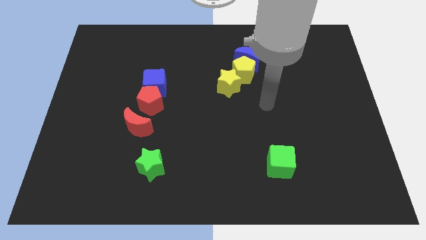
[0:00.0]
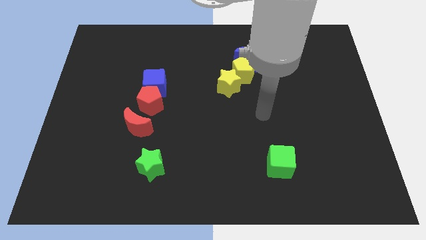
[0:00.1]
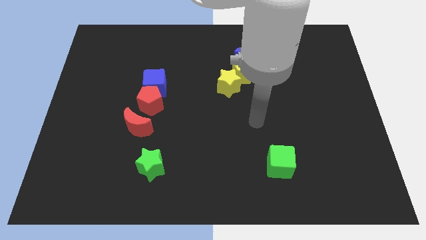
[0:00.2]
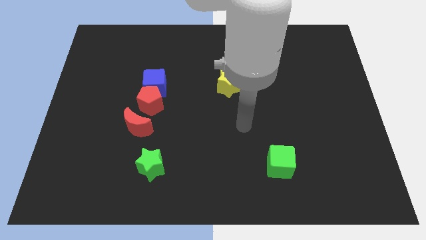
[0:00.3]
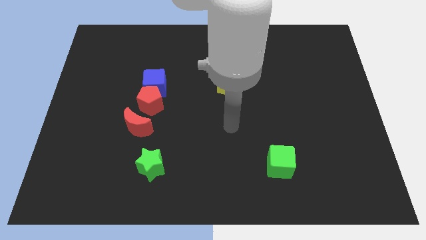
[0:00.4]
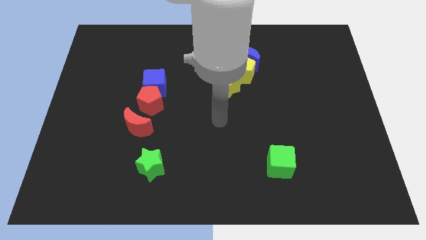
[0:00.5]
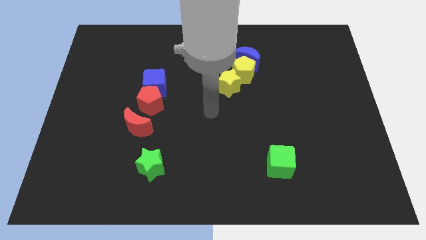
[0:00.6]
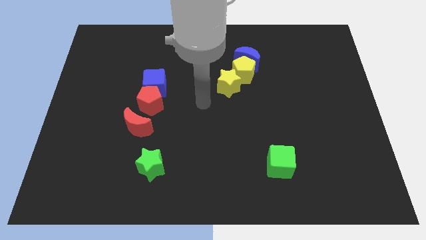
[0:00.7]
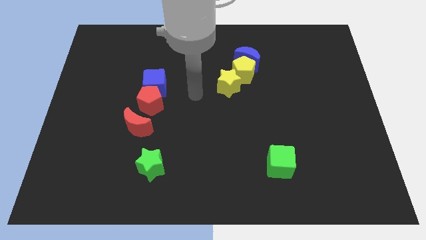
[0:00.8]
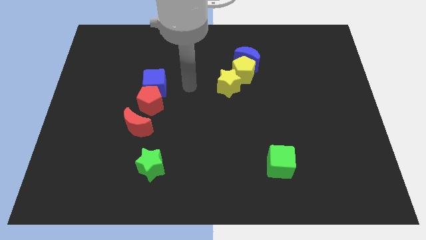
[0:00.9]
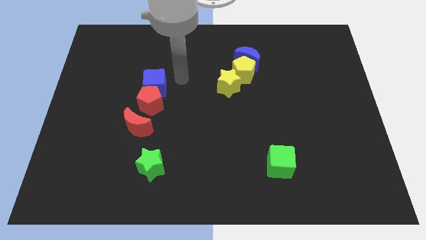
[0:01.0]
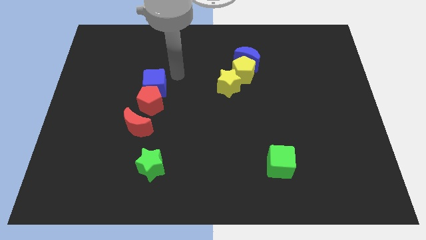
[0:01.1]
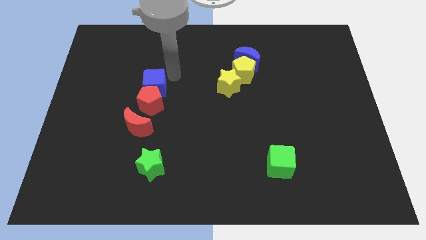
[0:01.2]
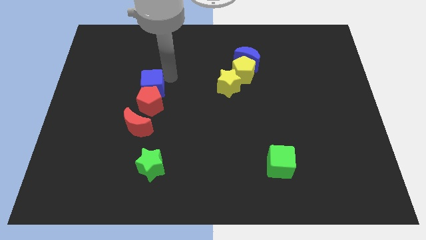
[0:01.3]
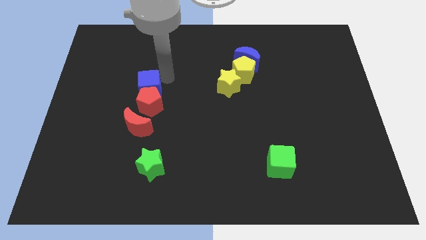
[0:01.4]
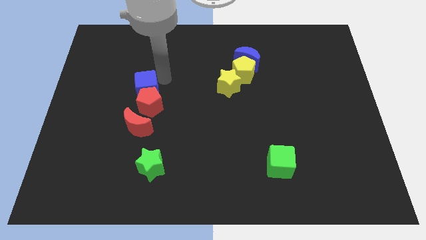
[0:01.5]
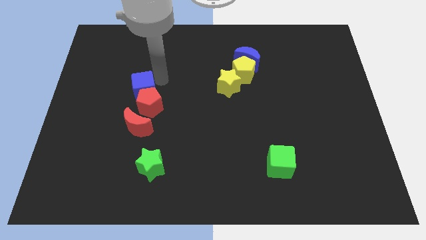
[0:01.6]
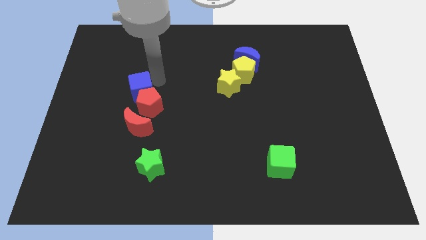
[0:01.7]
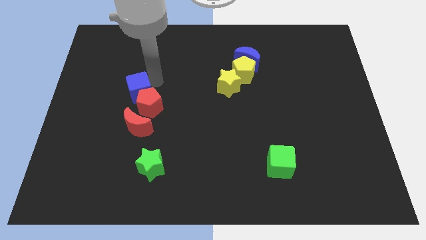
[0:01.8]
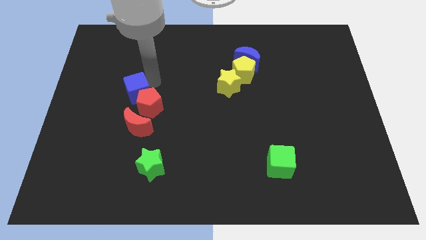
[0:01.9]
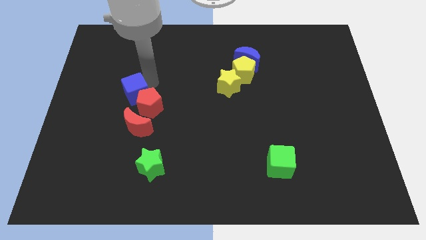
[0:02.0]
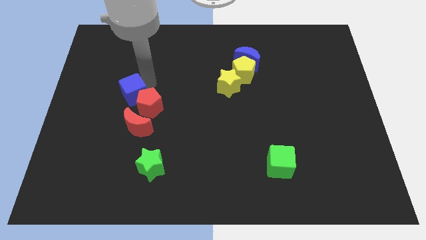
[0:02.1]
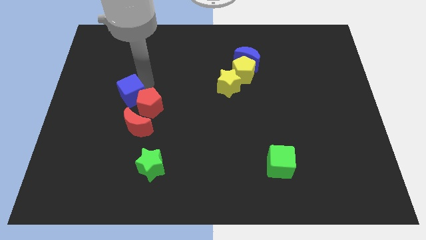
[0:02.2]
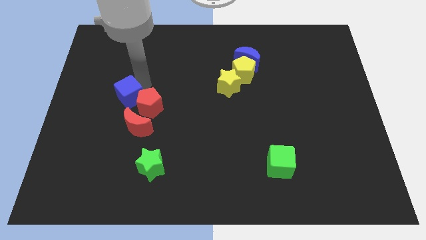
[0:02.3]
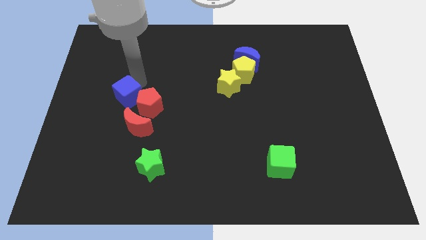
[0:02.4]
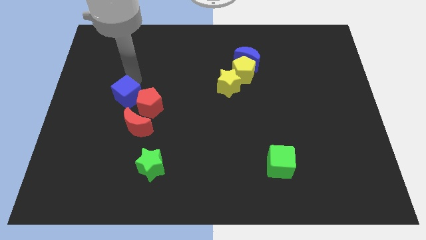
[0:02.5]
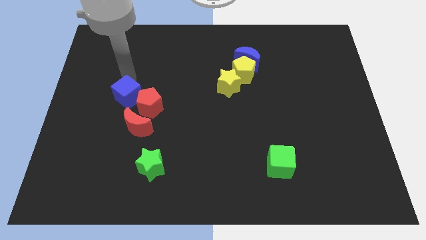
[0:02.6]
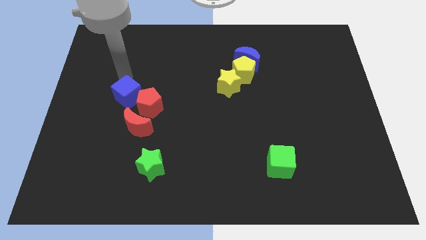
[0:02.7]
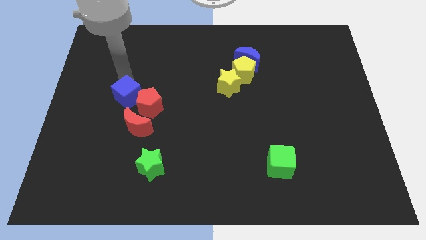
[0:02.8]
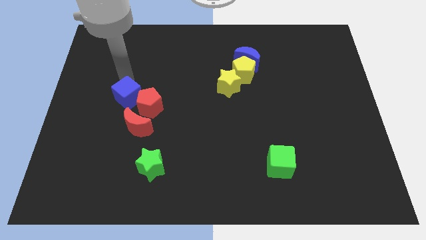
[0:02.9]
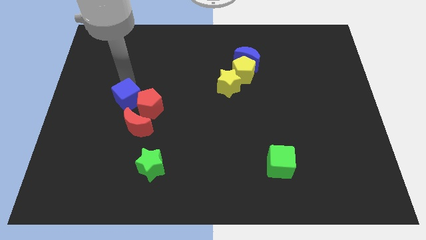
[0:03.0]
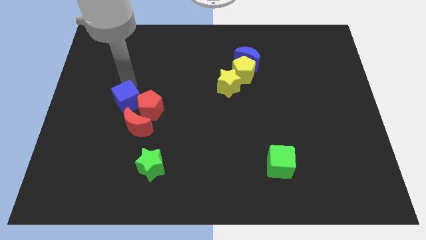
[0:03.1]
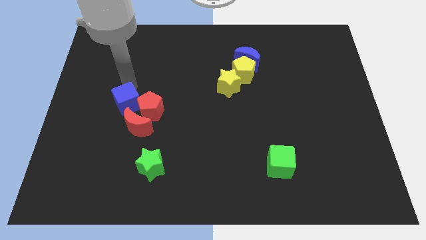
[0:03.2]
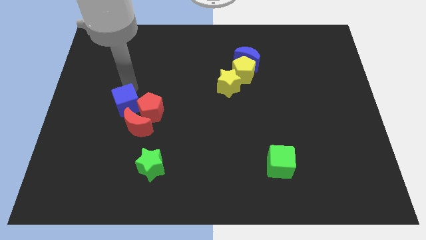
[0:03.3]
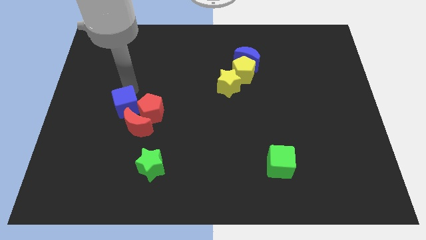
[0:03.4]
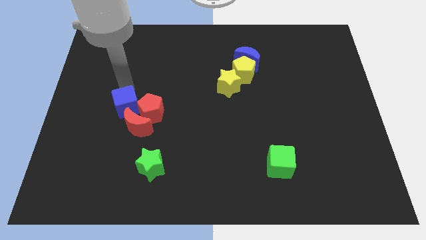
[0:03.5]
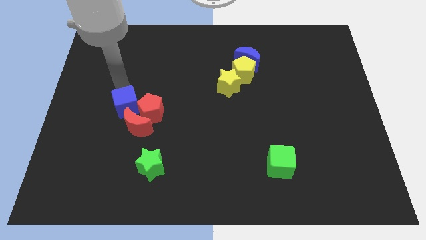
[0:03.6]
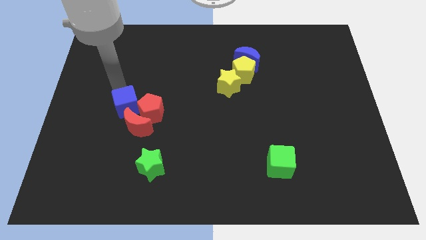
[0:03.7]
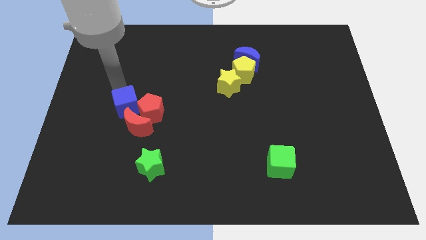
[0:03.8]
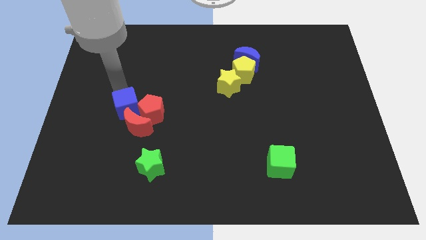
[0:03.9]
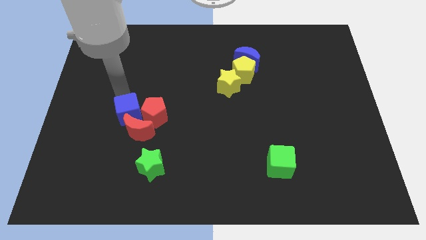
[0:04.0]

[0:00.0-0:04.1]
push the blue cube towards the red moon

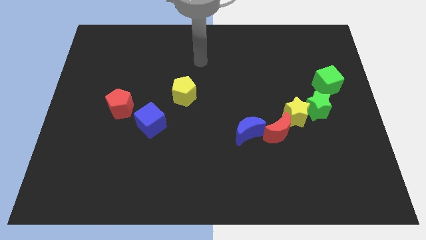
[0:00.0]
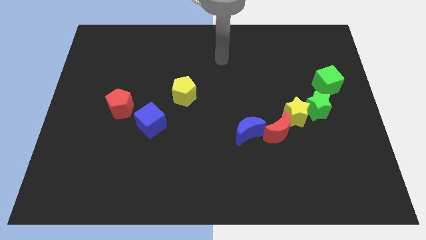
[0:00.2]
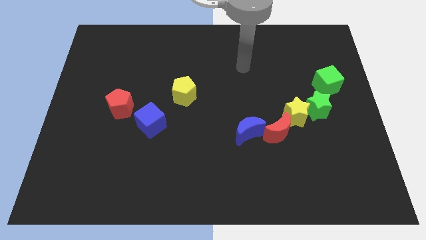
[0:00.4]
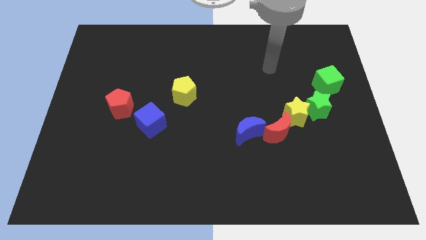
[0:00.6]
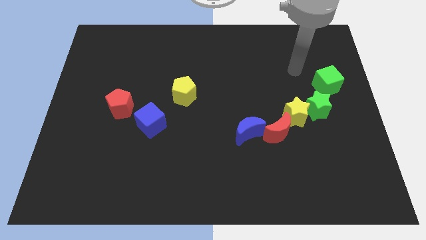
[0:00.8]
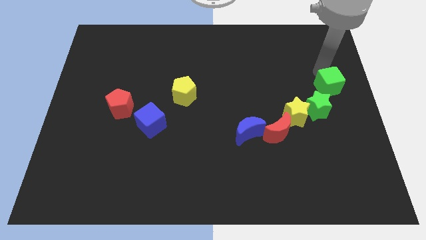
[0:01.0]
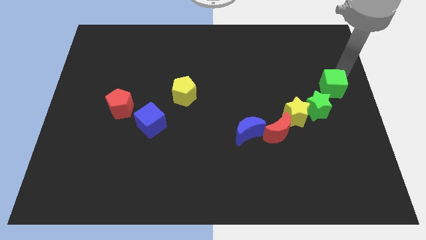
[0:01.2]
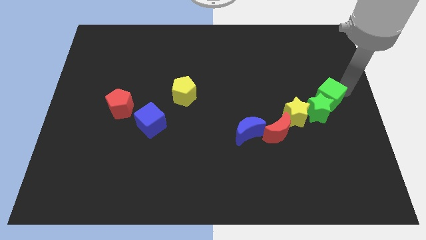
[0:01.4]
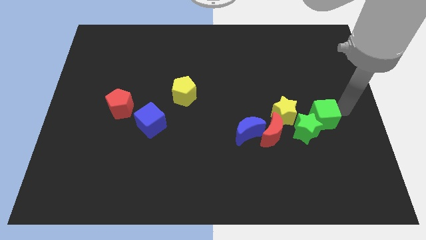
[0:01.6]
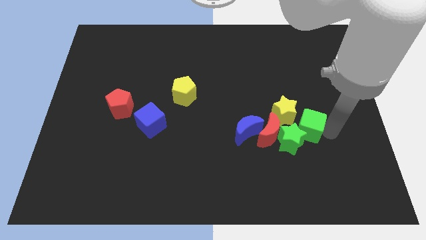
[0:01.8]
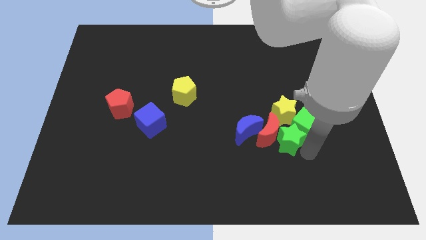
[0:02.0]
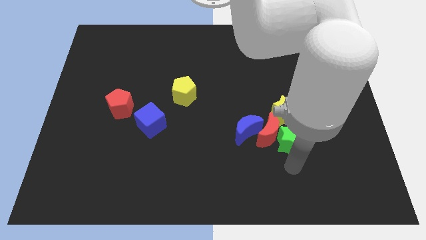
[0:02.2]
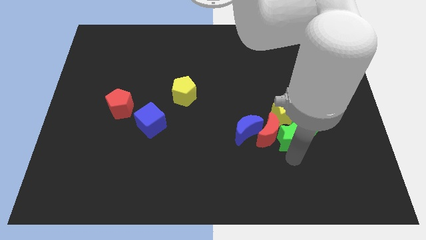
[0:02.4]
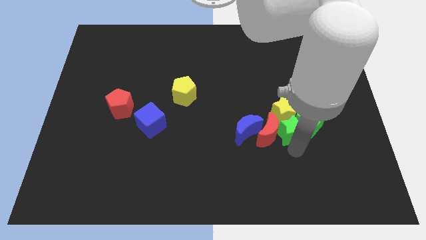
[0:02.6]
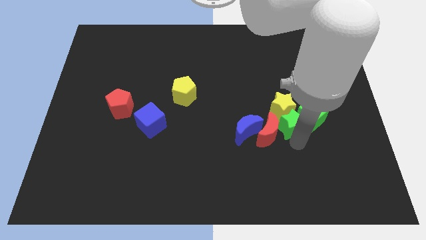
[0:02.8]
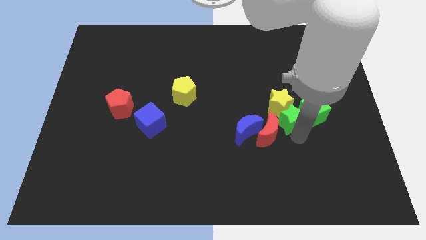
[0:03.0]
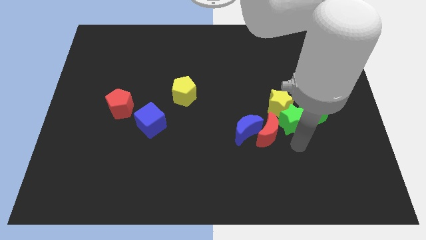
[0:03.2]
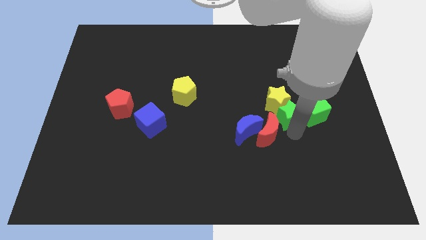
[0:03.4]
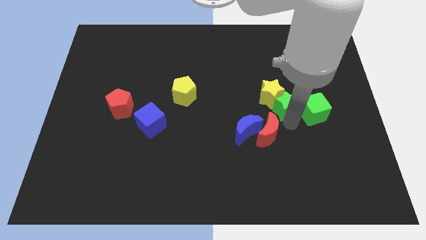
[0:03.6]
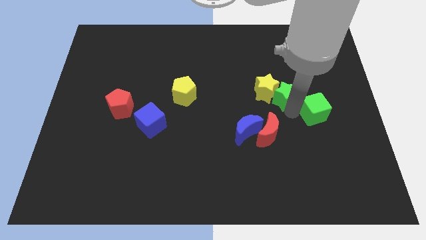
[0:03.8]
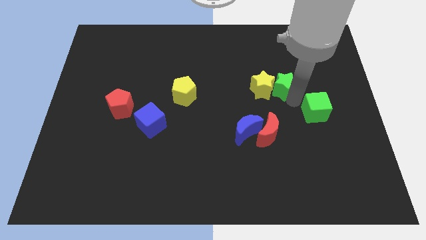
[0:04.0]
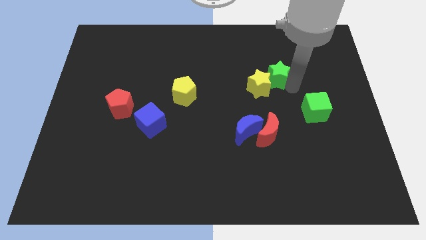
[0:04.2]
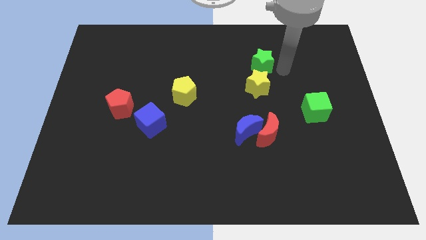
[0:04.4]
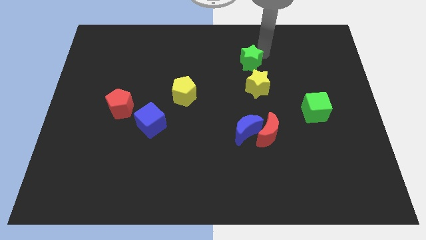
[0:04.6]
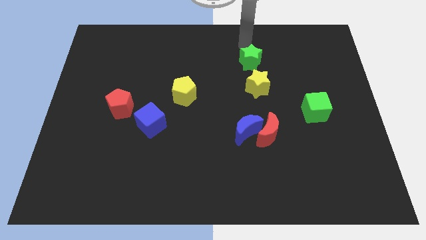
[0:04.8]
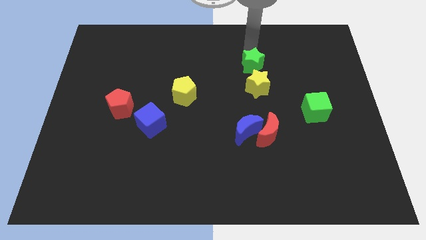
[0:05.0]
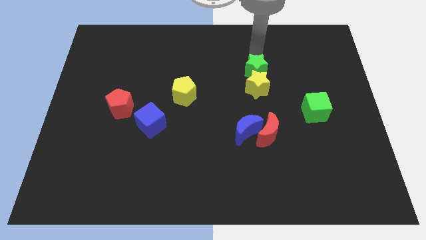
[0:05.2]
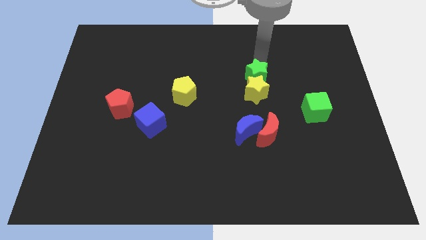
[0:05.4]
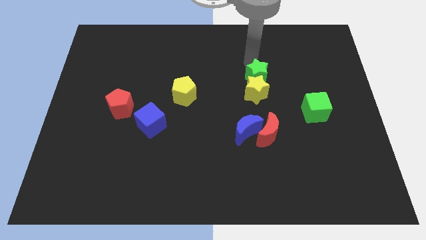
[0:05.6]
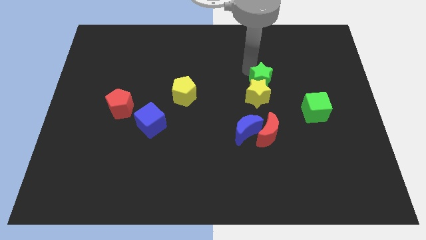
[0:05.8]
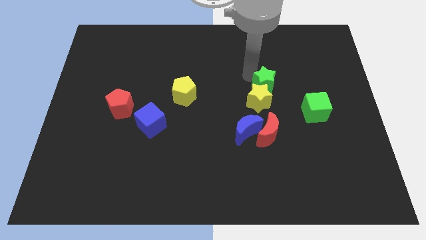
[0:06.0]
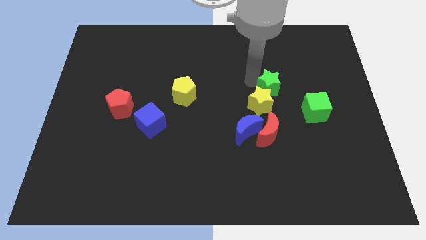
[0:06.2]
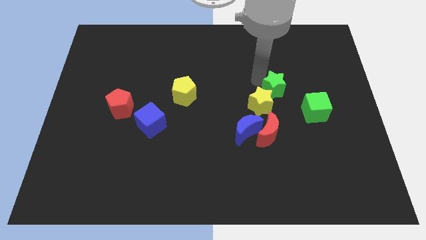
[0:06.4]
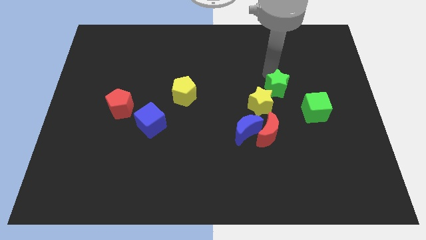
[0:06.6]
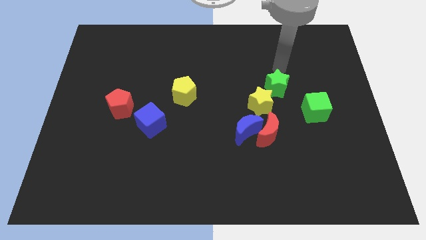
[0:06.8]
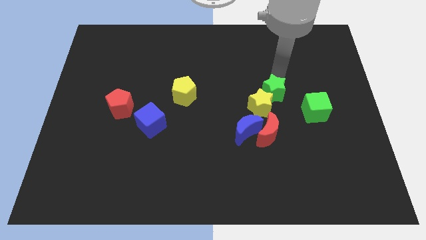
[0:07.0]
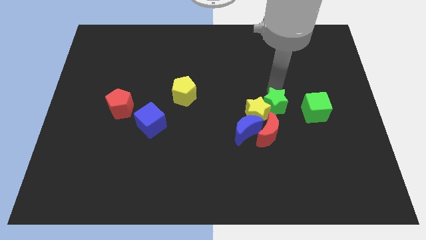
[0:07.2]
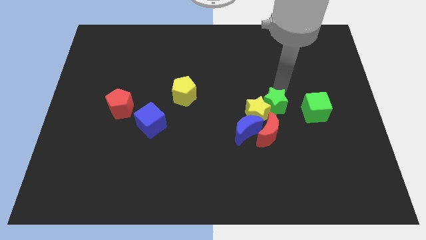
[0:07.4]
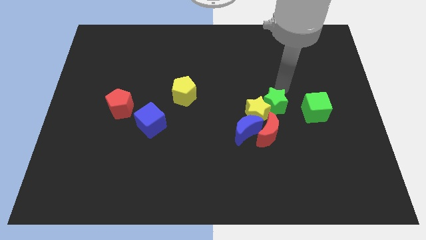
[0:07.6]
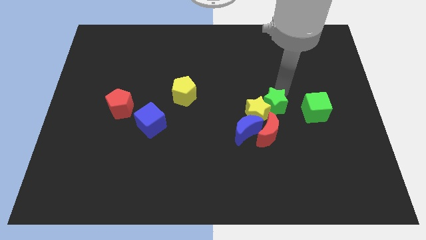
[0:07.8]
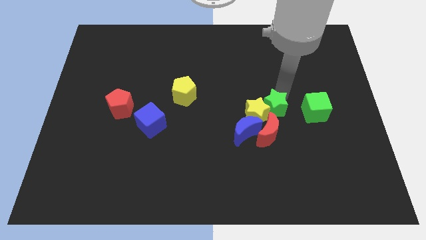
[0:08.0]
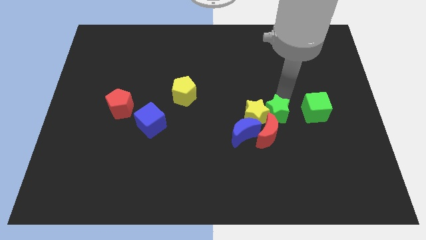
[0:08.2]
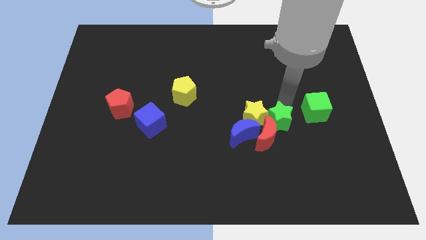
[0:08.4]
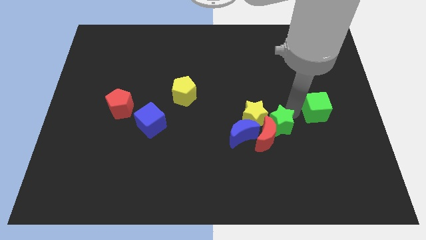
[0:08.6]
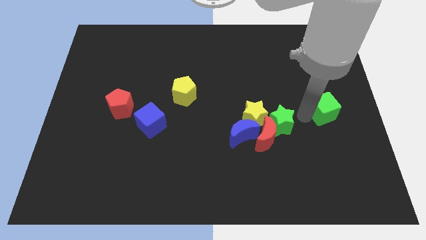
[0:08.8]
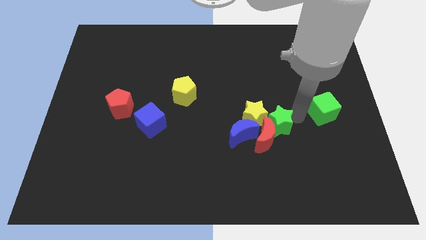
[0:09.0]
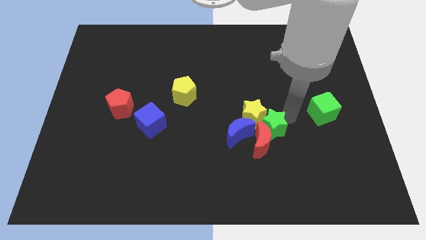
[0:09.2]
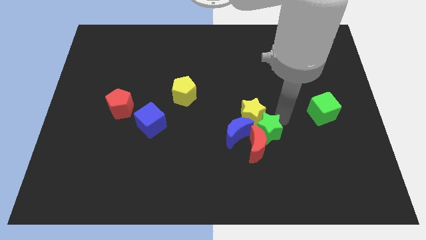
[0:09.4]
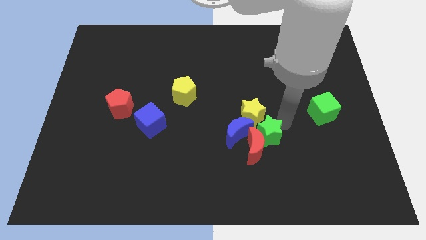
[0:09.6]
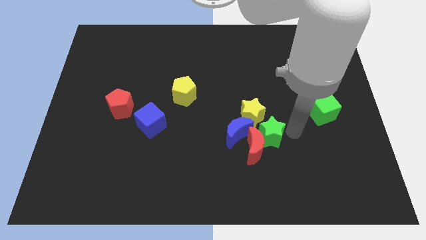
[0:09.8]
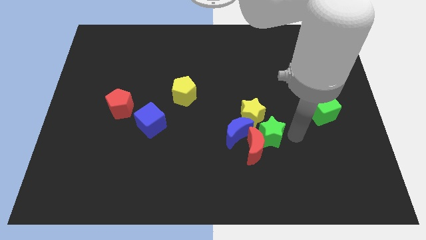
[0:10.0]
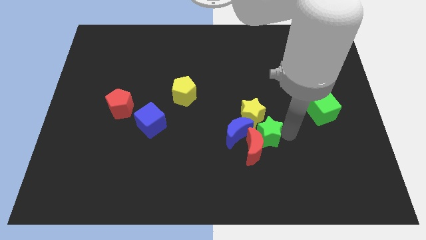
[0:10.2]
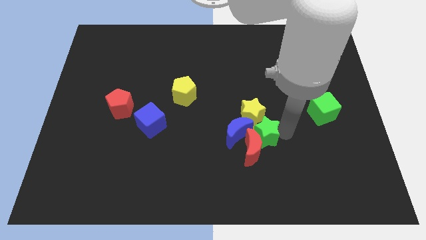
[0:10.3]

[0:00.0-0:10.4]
move the green star next to the blue moon
